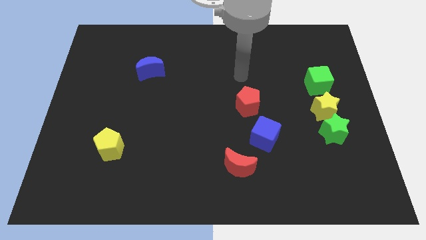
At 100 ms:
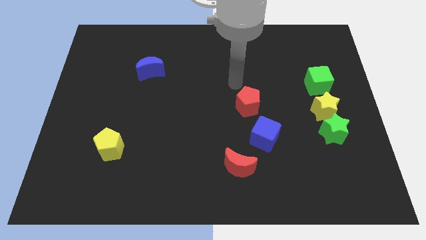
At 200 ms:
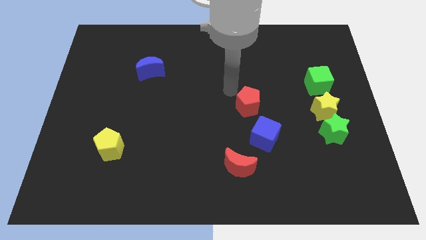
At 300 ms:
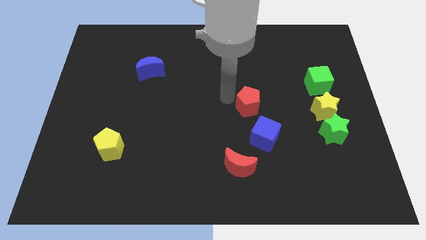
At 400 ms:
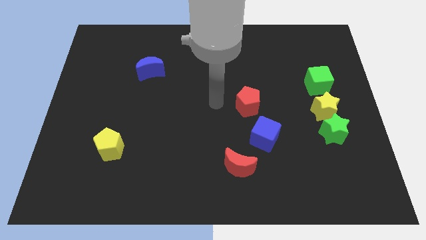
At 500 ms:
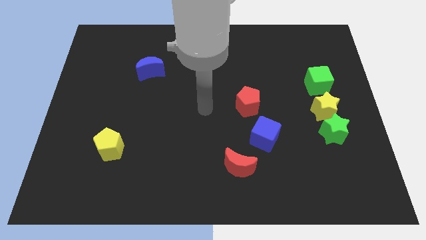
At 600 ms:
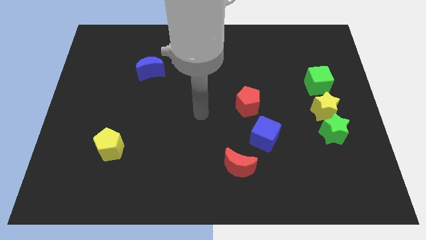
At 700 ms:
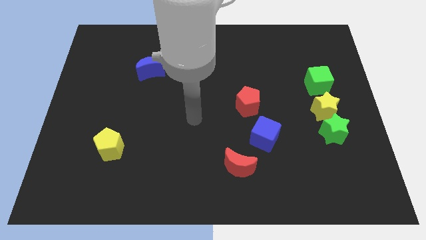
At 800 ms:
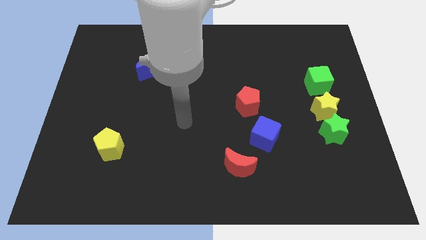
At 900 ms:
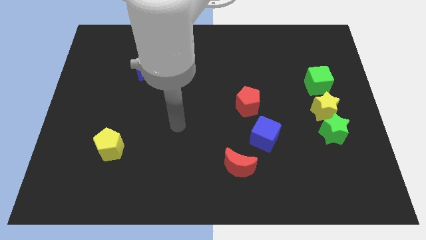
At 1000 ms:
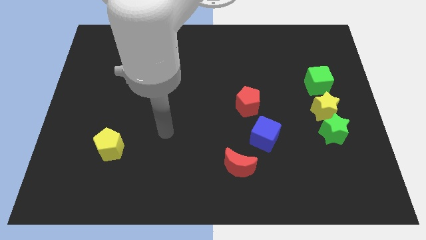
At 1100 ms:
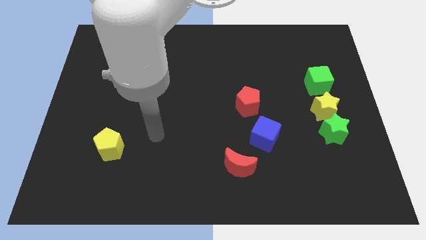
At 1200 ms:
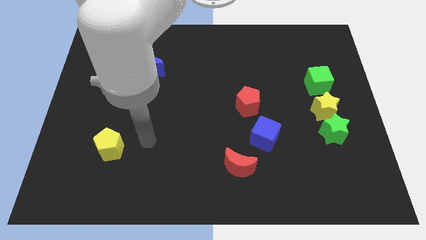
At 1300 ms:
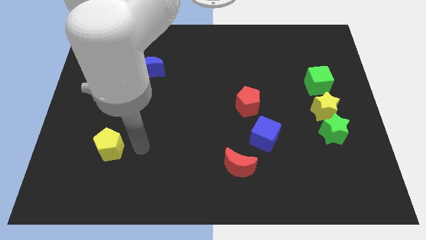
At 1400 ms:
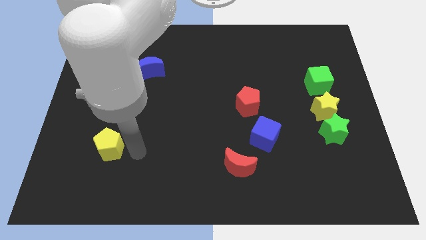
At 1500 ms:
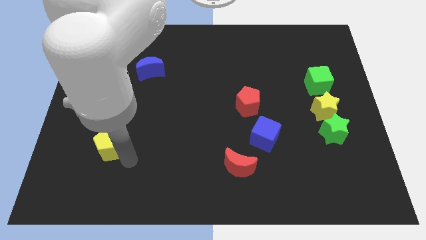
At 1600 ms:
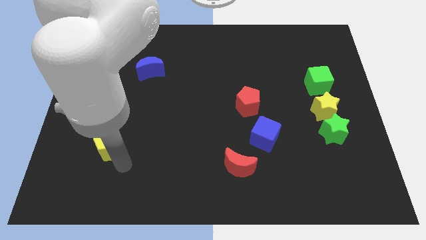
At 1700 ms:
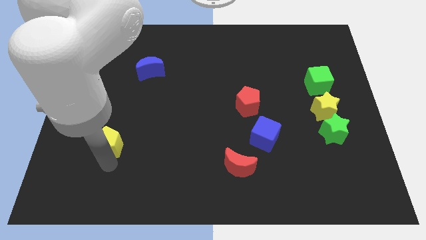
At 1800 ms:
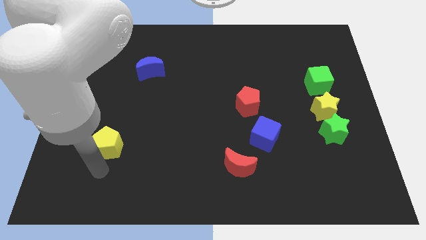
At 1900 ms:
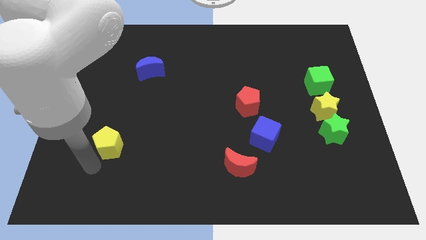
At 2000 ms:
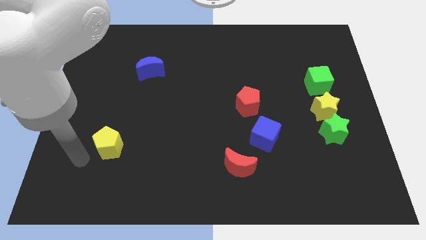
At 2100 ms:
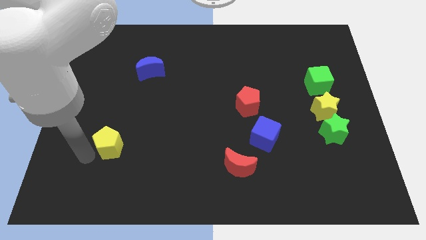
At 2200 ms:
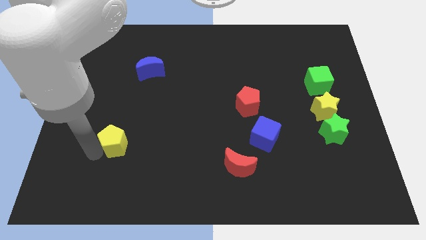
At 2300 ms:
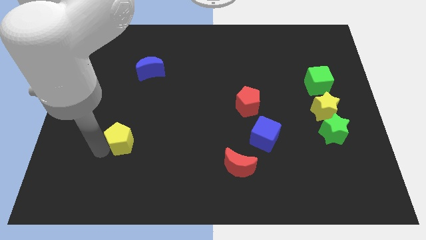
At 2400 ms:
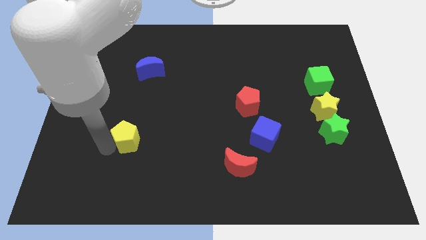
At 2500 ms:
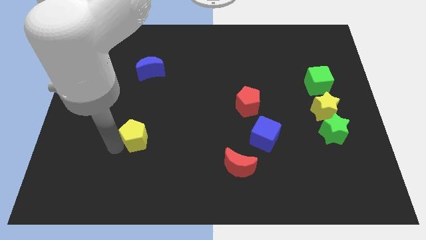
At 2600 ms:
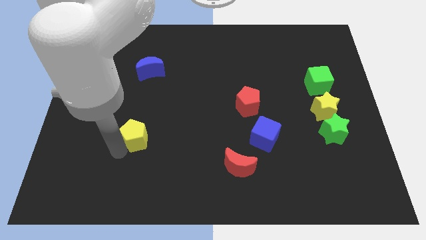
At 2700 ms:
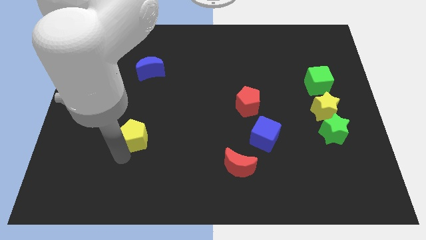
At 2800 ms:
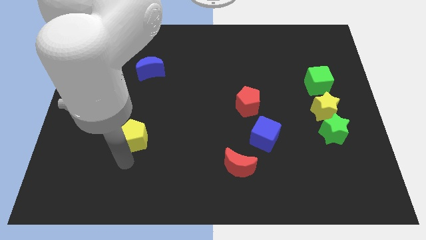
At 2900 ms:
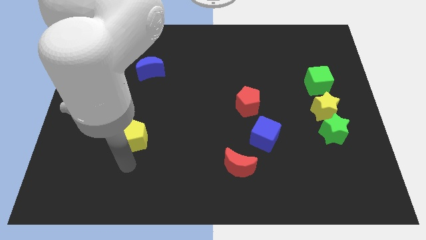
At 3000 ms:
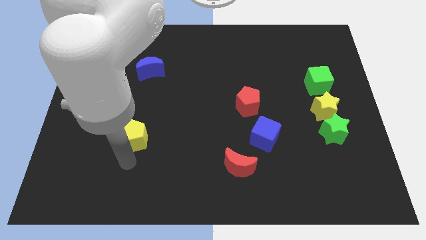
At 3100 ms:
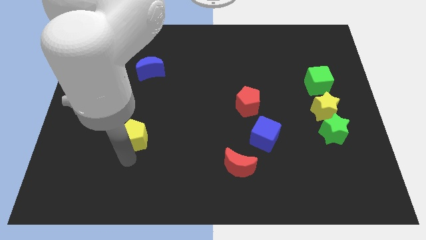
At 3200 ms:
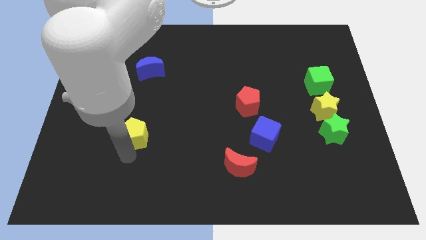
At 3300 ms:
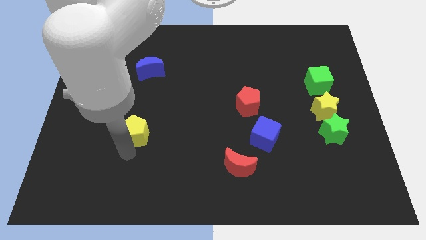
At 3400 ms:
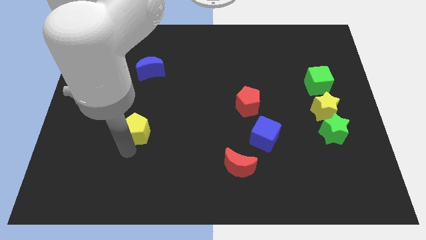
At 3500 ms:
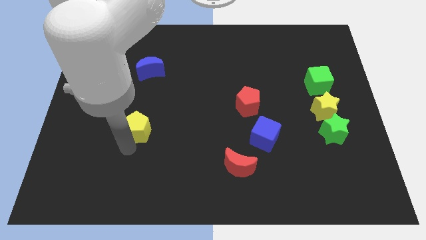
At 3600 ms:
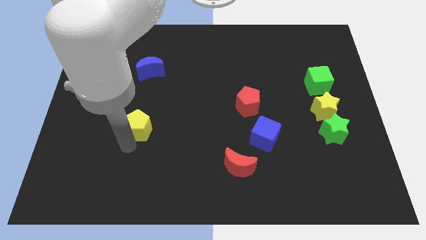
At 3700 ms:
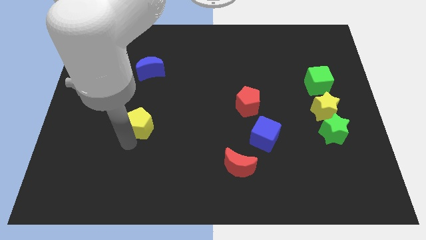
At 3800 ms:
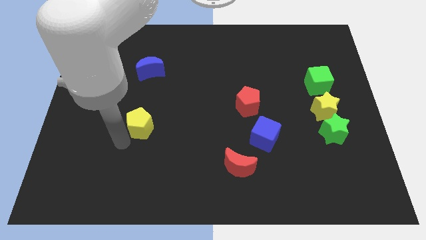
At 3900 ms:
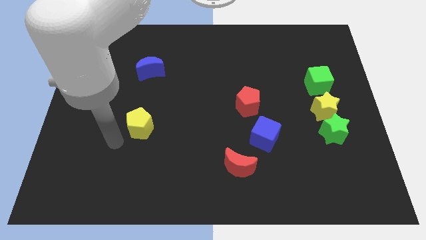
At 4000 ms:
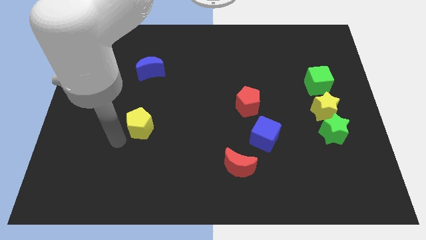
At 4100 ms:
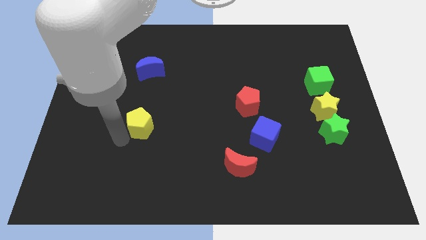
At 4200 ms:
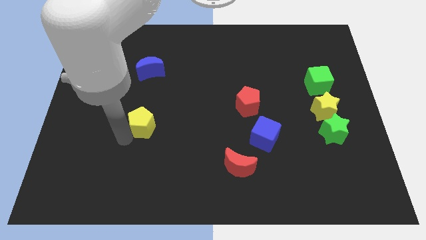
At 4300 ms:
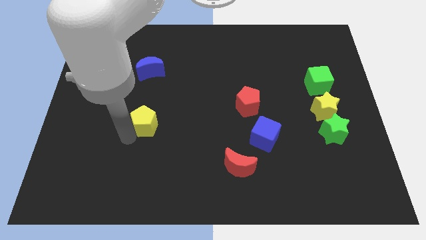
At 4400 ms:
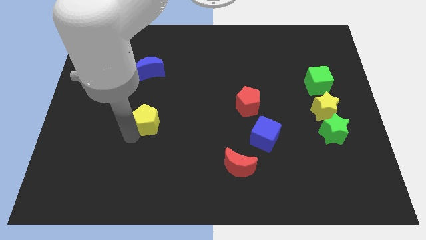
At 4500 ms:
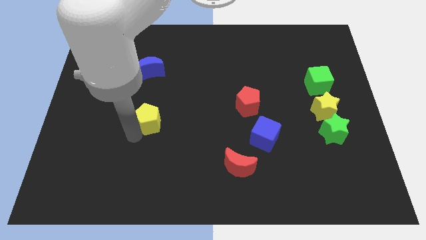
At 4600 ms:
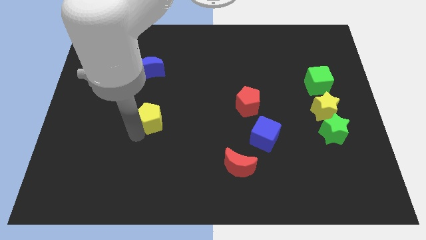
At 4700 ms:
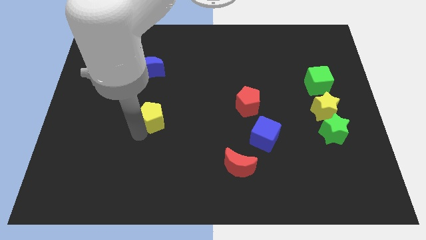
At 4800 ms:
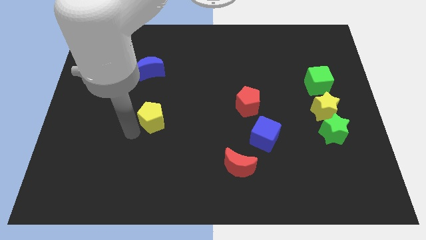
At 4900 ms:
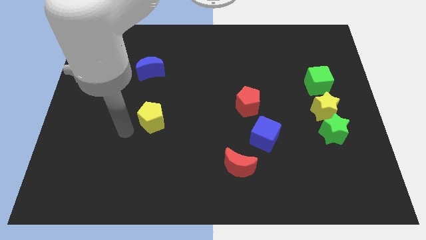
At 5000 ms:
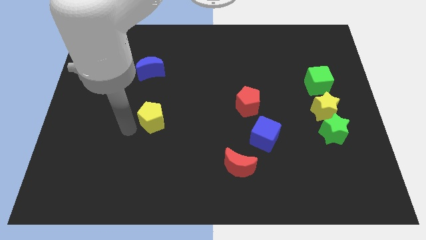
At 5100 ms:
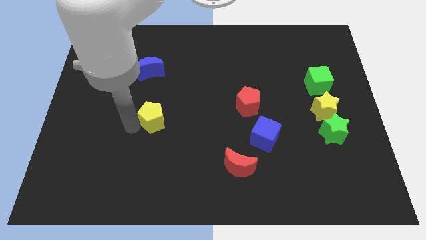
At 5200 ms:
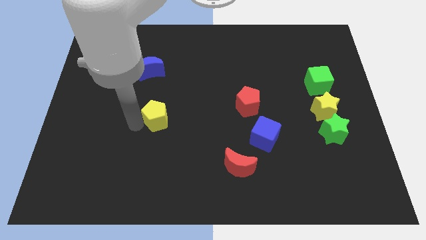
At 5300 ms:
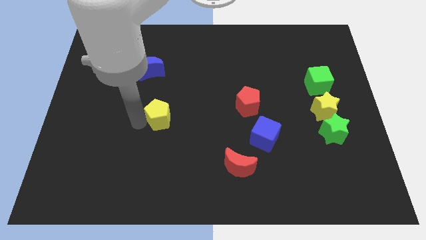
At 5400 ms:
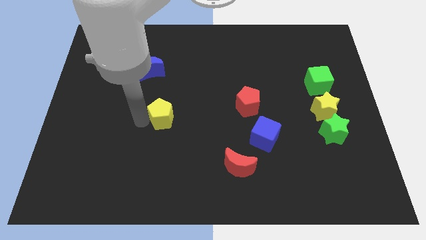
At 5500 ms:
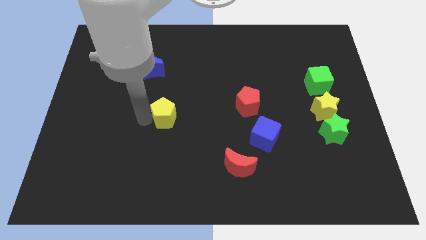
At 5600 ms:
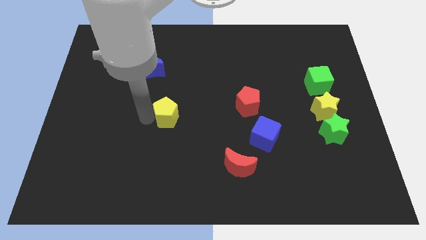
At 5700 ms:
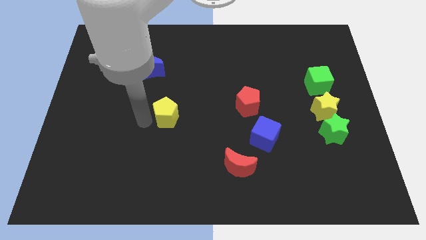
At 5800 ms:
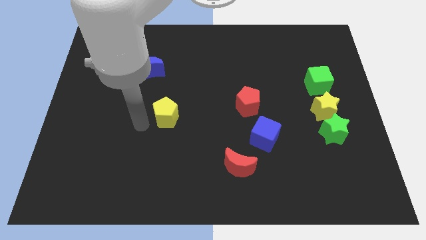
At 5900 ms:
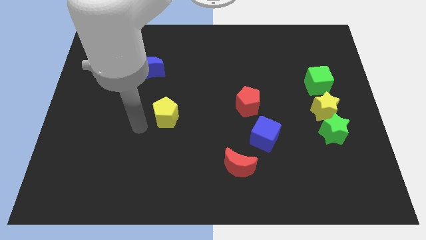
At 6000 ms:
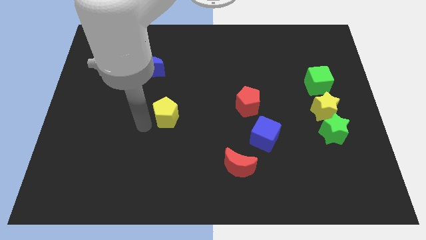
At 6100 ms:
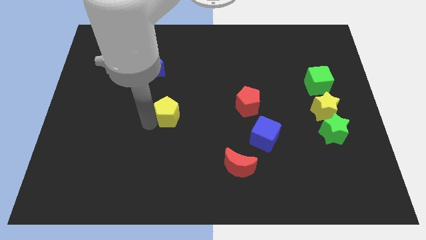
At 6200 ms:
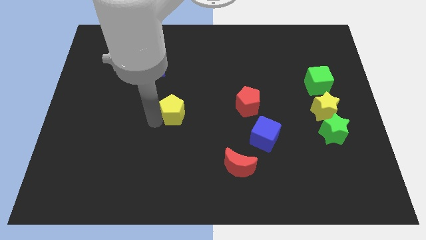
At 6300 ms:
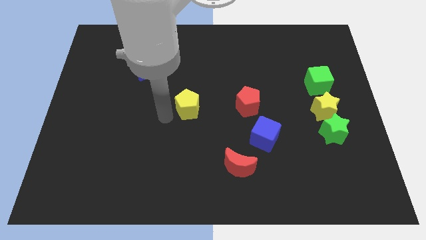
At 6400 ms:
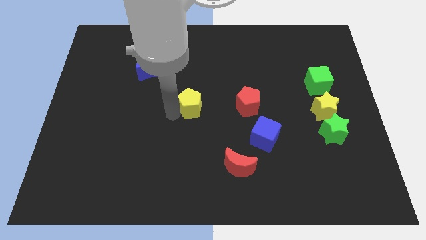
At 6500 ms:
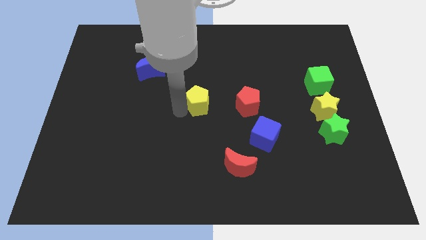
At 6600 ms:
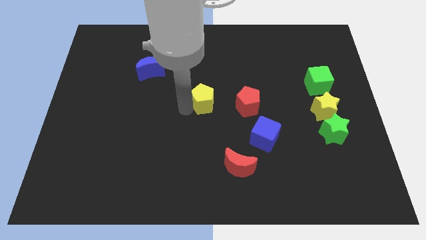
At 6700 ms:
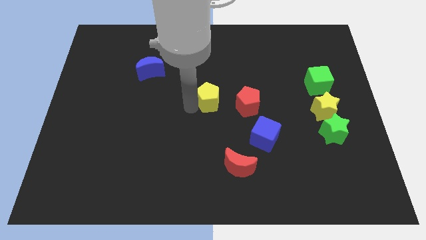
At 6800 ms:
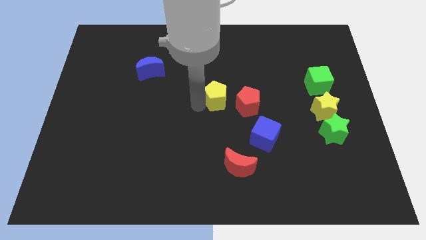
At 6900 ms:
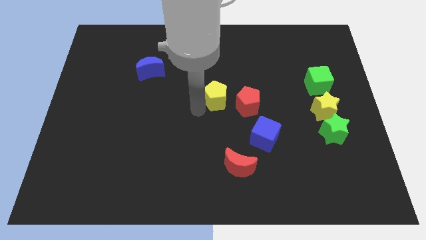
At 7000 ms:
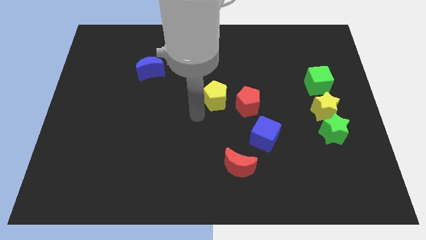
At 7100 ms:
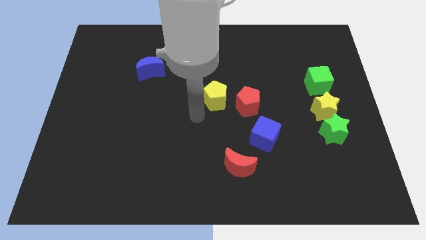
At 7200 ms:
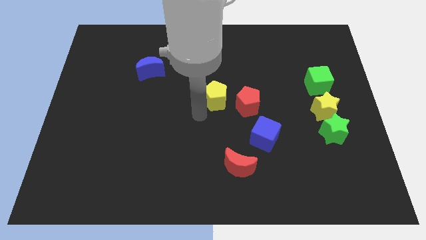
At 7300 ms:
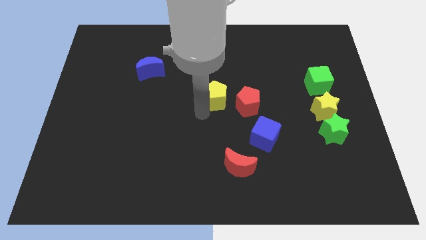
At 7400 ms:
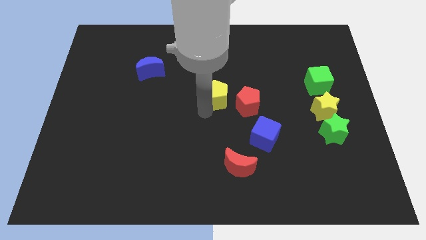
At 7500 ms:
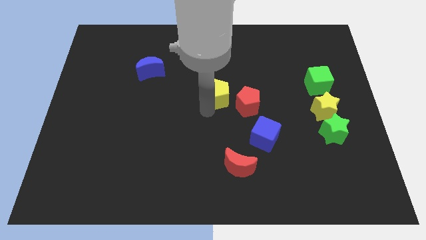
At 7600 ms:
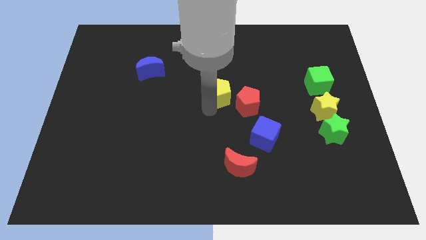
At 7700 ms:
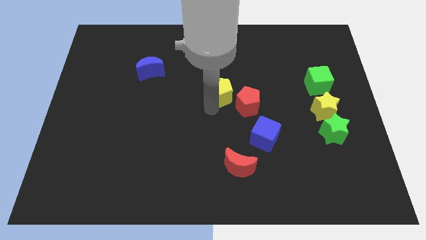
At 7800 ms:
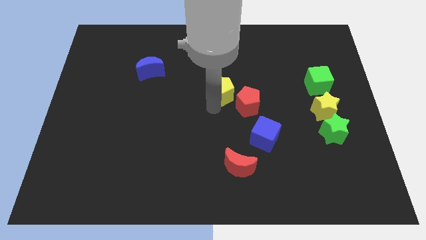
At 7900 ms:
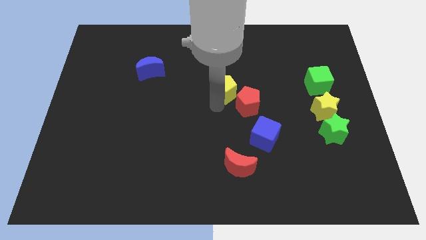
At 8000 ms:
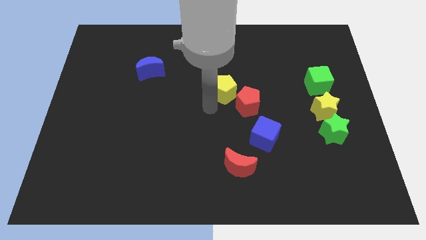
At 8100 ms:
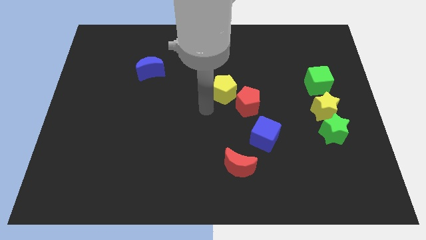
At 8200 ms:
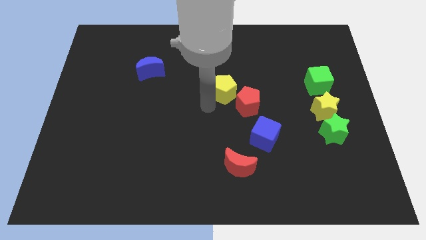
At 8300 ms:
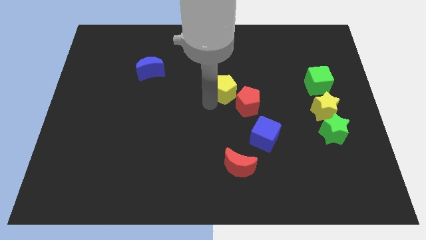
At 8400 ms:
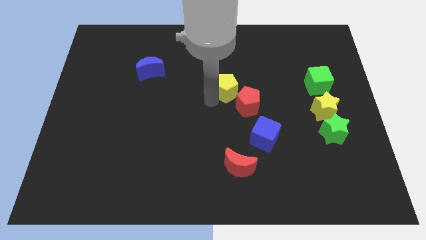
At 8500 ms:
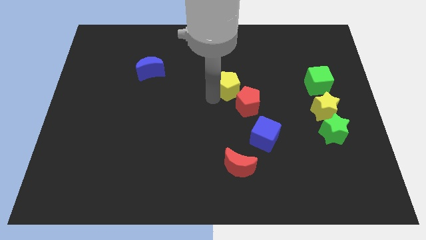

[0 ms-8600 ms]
push the yellow pentagon to the top of the red pentagon
